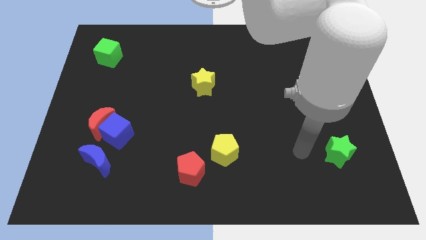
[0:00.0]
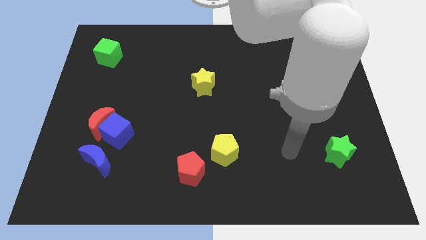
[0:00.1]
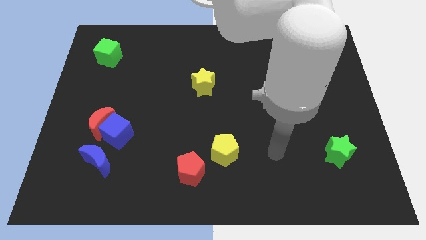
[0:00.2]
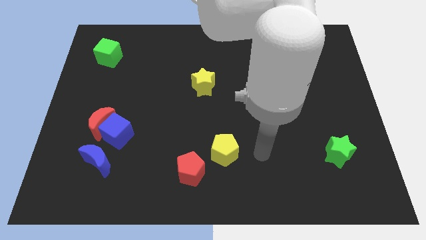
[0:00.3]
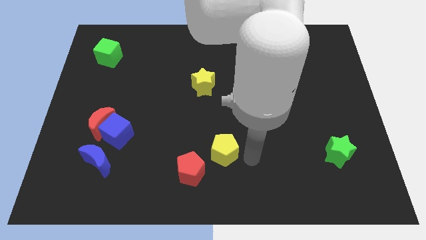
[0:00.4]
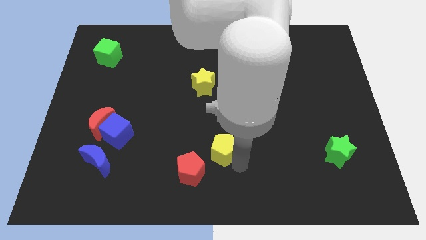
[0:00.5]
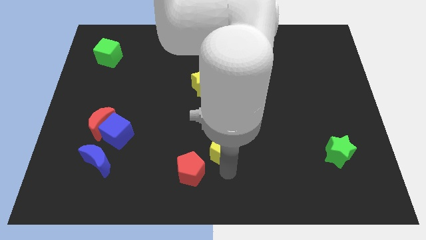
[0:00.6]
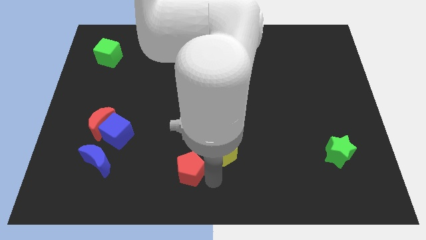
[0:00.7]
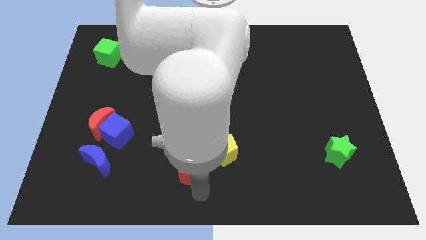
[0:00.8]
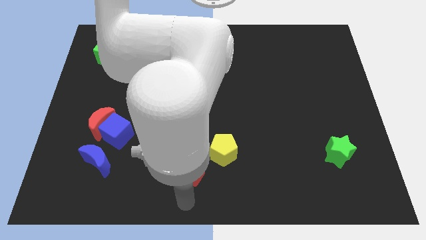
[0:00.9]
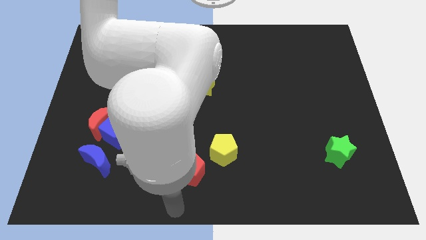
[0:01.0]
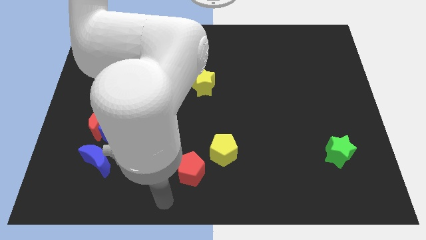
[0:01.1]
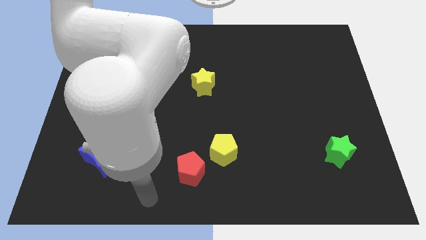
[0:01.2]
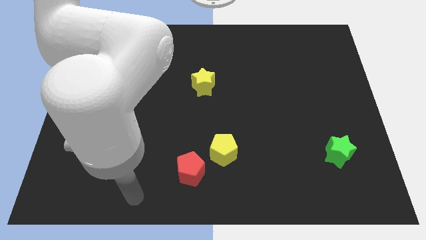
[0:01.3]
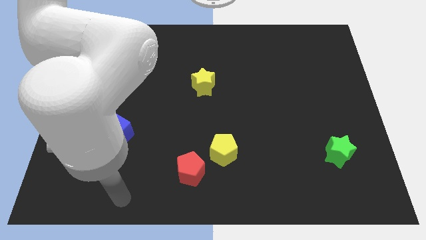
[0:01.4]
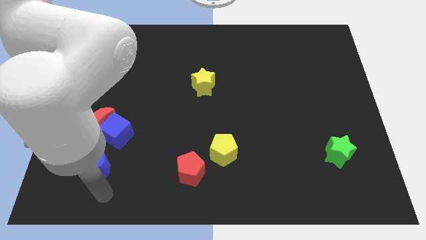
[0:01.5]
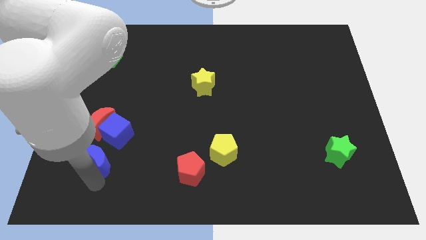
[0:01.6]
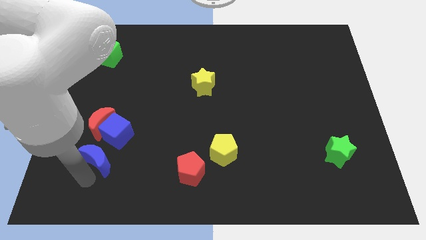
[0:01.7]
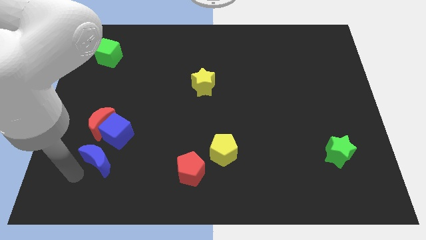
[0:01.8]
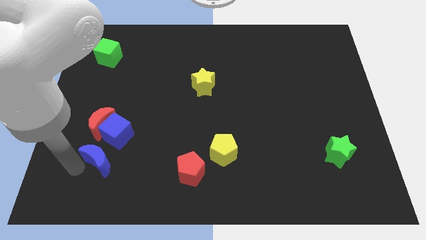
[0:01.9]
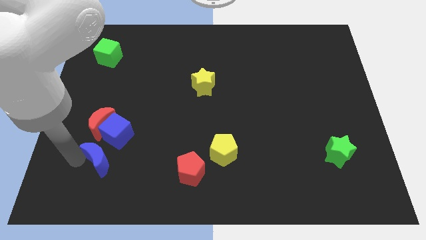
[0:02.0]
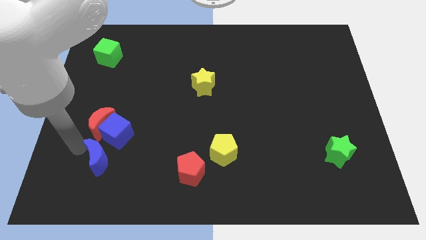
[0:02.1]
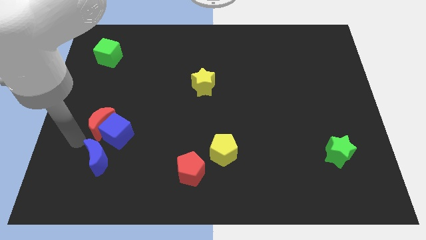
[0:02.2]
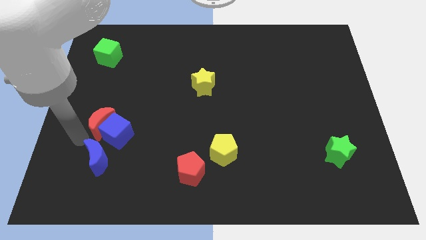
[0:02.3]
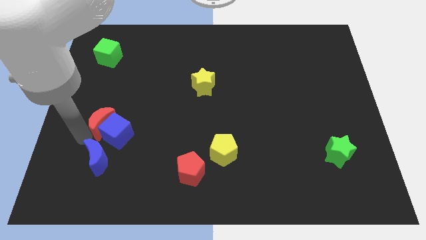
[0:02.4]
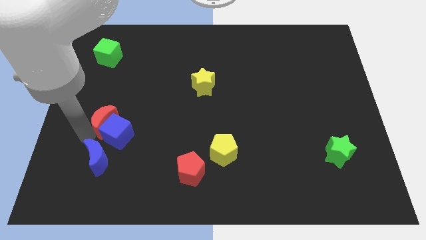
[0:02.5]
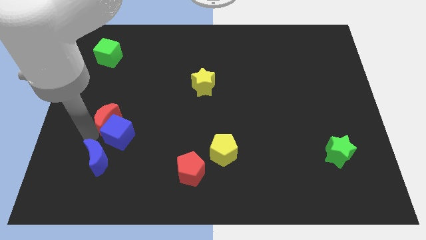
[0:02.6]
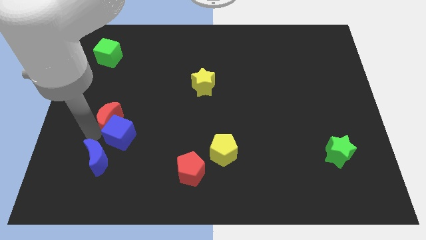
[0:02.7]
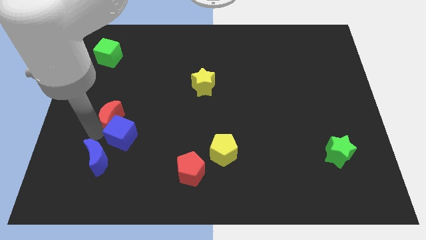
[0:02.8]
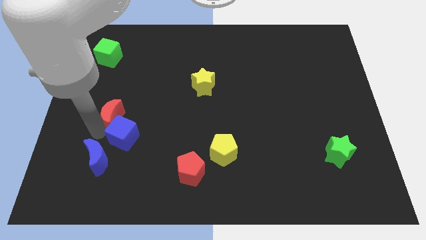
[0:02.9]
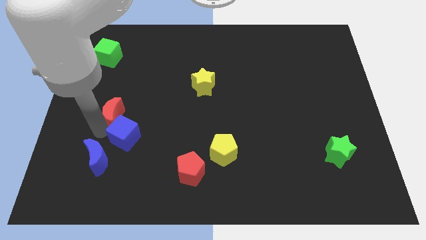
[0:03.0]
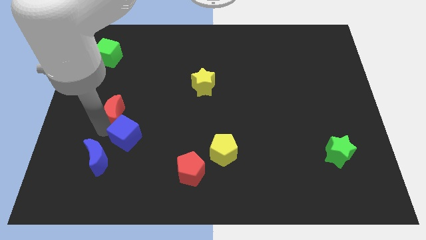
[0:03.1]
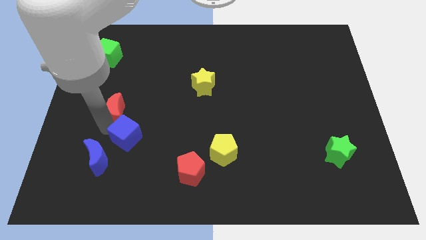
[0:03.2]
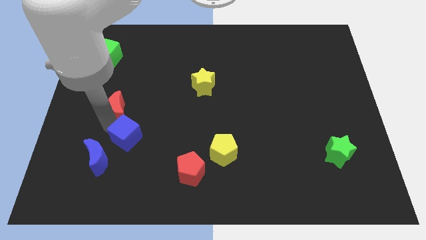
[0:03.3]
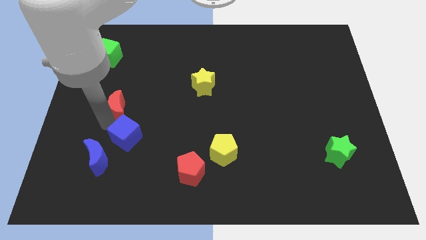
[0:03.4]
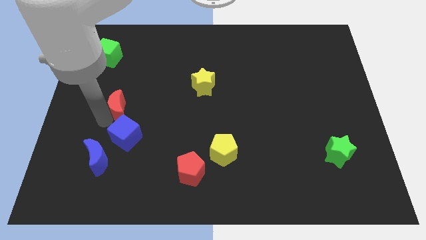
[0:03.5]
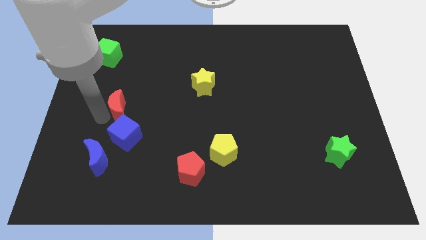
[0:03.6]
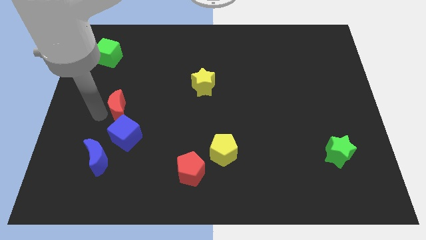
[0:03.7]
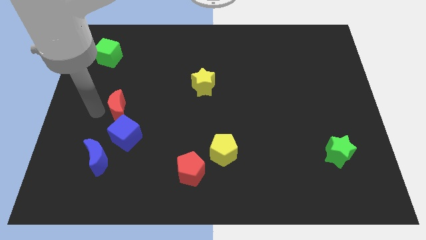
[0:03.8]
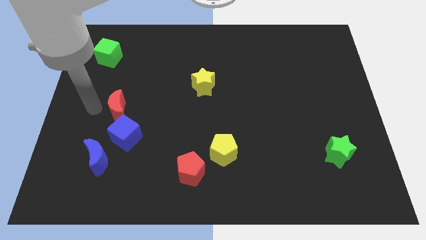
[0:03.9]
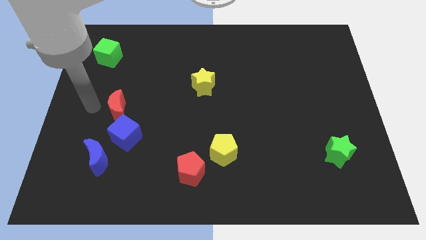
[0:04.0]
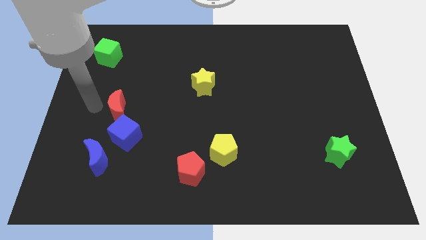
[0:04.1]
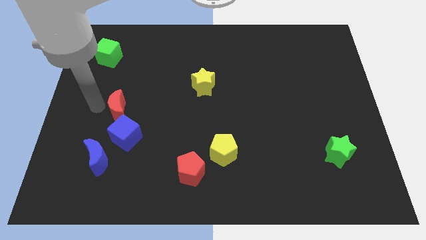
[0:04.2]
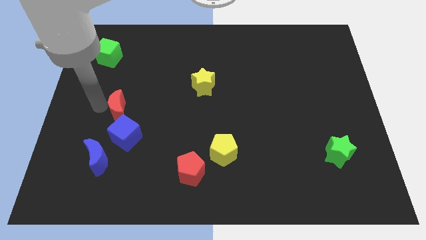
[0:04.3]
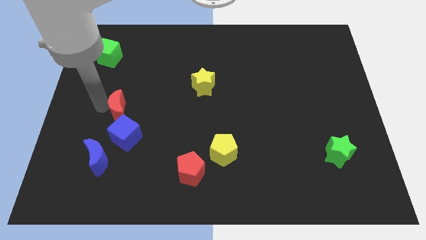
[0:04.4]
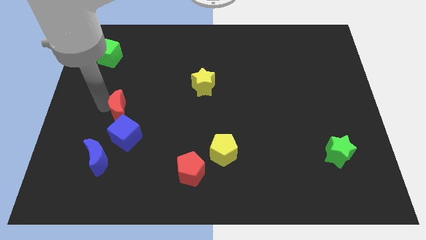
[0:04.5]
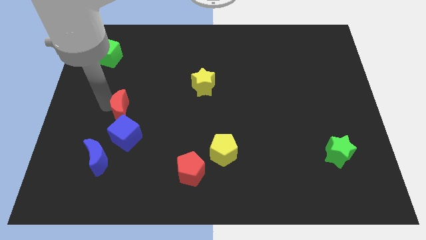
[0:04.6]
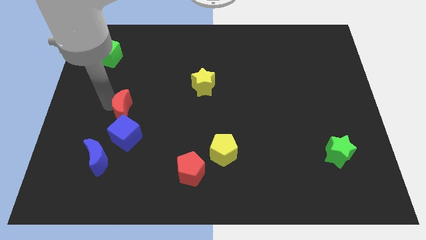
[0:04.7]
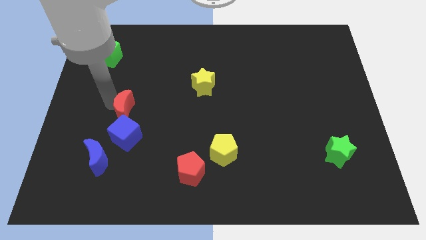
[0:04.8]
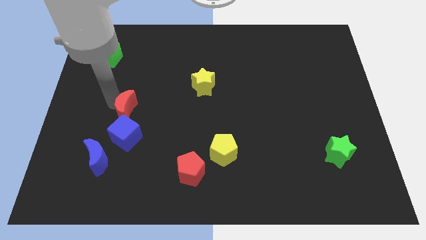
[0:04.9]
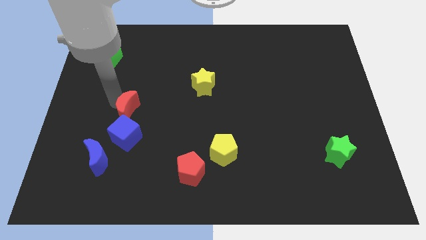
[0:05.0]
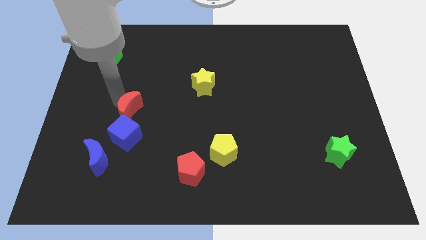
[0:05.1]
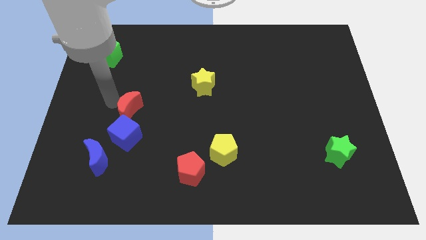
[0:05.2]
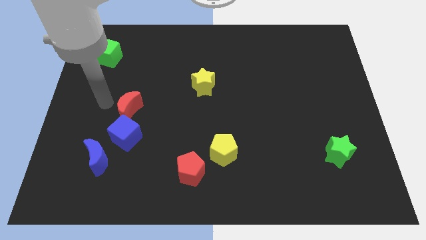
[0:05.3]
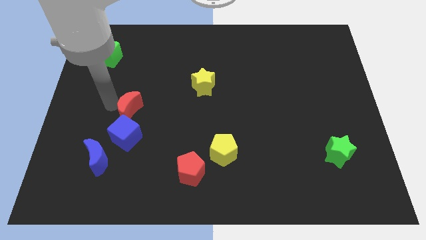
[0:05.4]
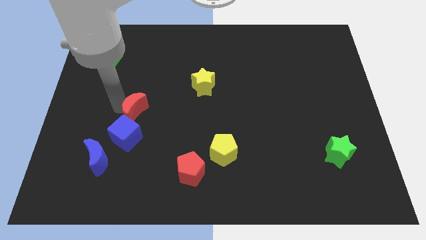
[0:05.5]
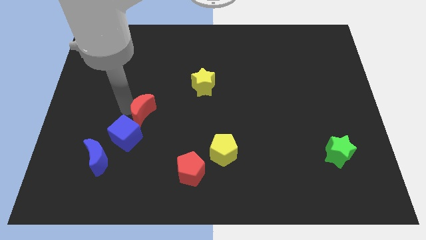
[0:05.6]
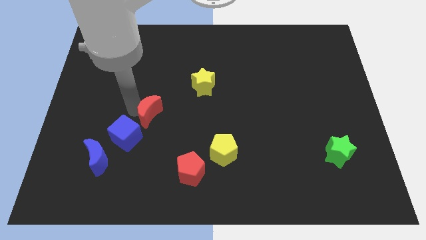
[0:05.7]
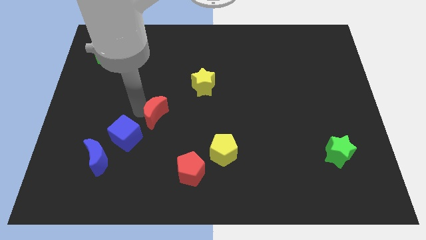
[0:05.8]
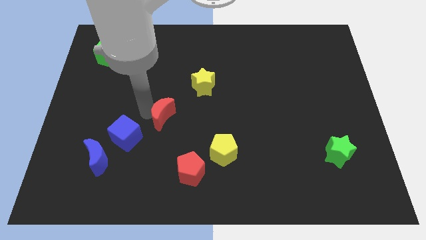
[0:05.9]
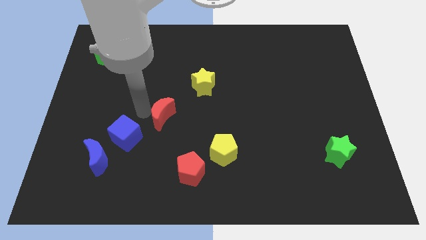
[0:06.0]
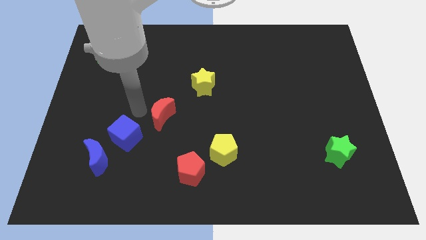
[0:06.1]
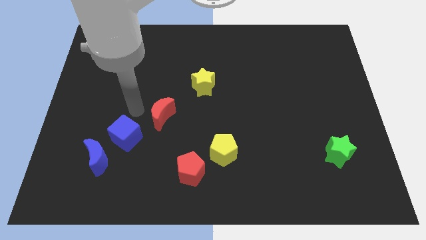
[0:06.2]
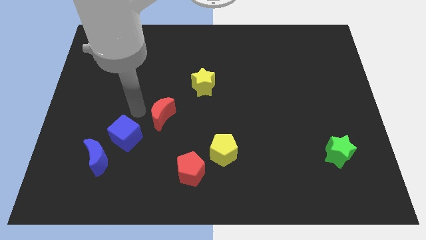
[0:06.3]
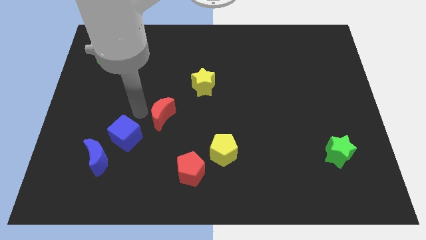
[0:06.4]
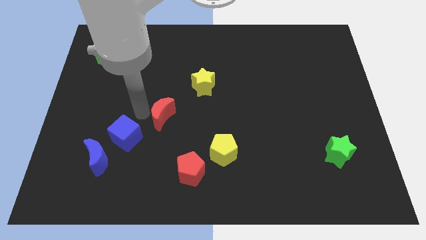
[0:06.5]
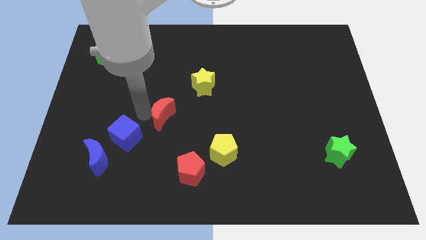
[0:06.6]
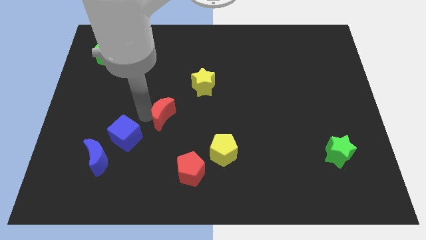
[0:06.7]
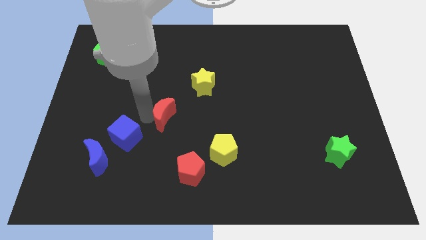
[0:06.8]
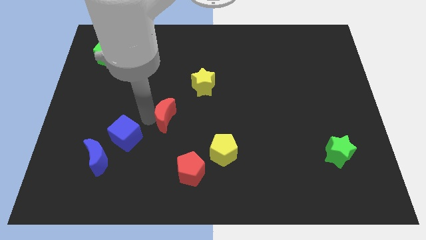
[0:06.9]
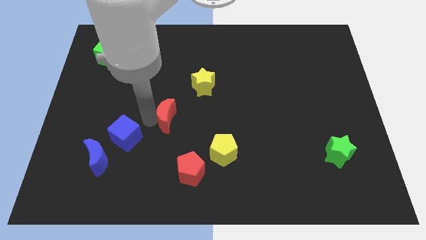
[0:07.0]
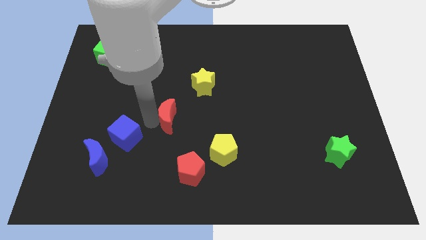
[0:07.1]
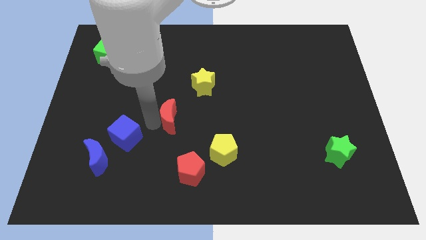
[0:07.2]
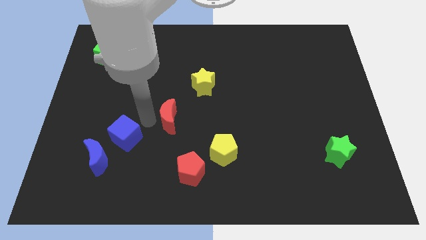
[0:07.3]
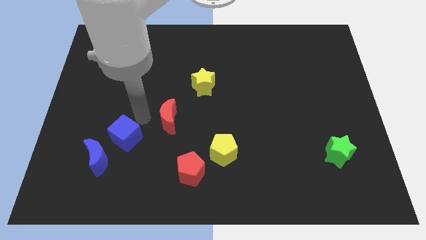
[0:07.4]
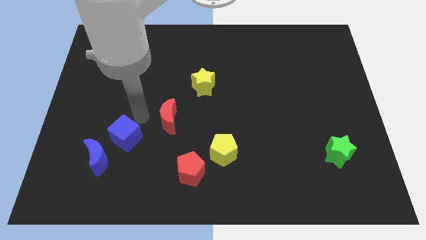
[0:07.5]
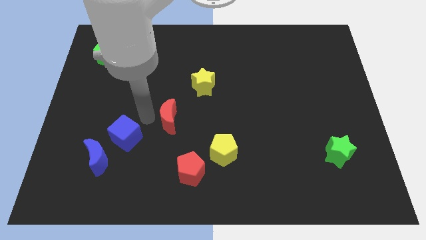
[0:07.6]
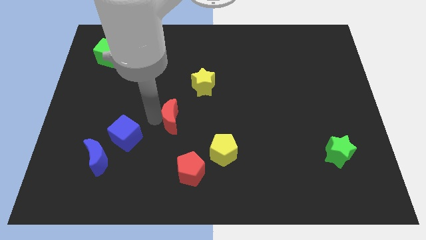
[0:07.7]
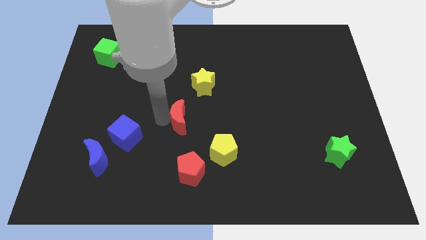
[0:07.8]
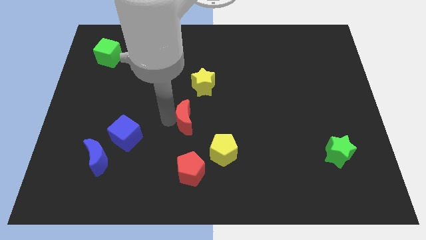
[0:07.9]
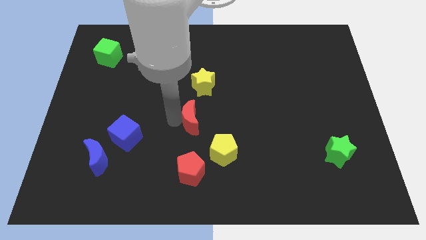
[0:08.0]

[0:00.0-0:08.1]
slide the red moon to the right
